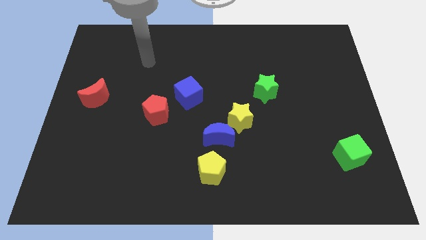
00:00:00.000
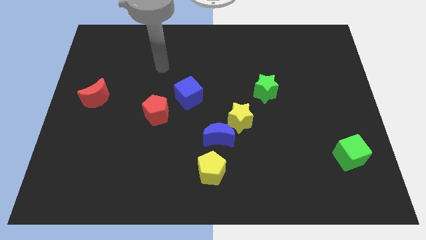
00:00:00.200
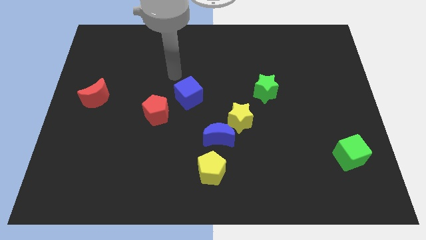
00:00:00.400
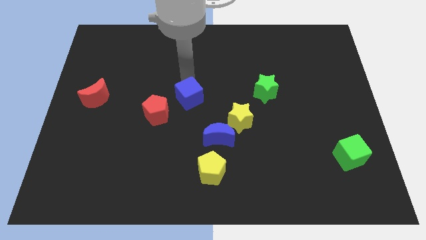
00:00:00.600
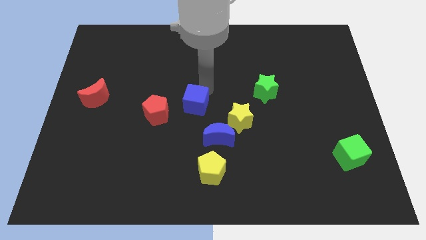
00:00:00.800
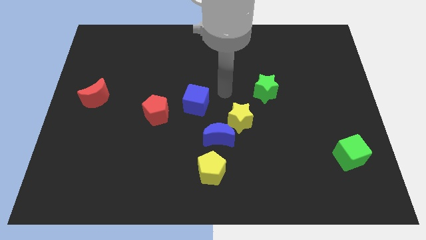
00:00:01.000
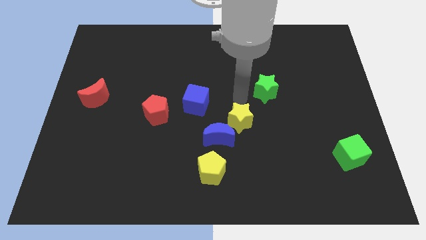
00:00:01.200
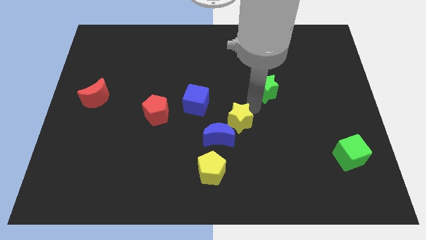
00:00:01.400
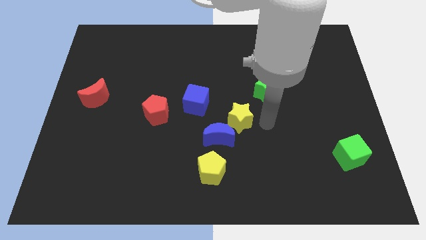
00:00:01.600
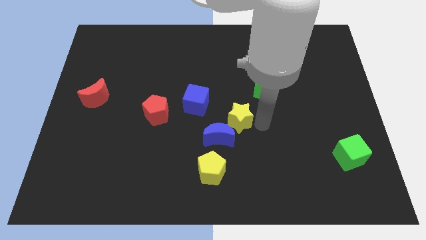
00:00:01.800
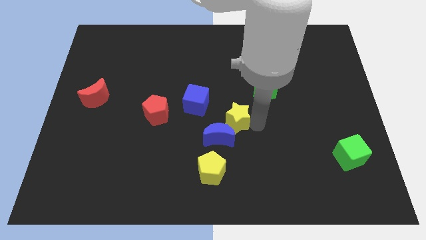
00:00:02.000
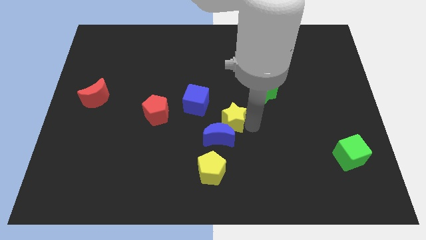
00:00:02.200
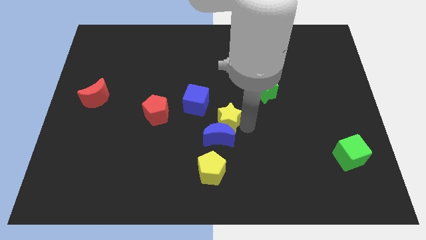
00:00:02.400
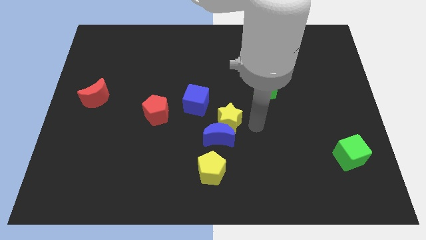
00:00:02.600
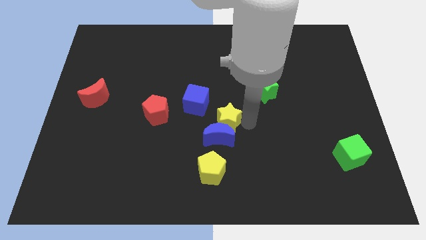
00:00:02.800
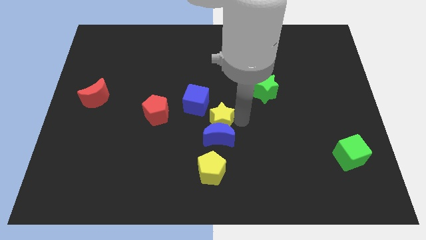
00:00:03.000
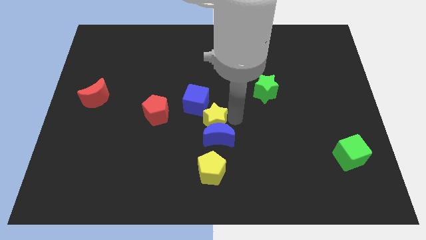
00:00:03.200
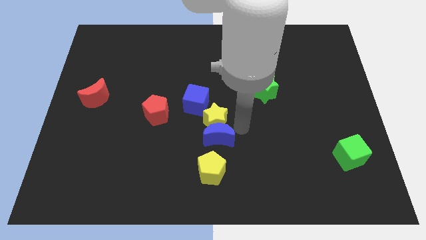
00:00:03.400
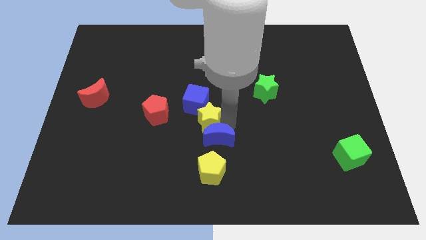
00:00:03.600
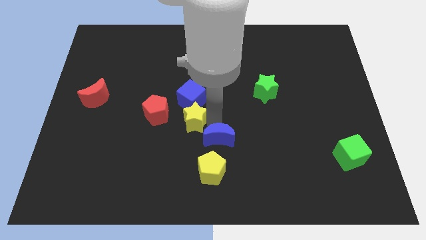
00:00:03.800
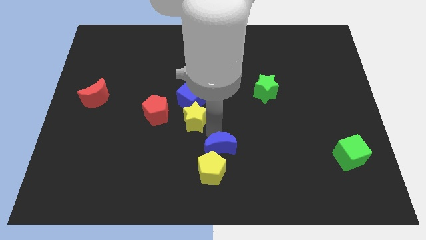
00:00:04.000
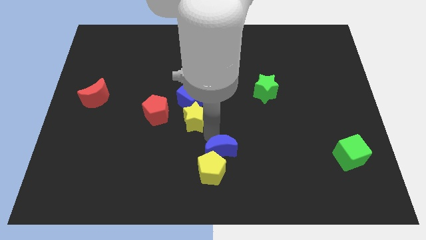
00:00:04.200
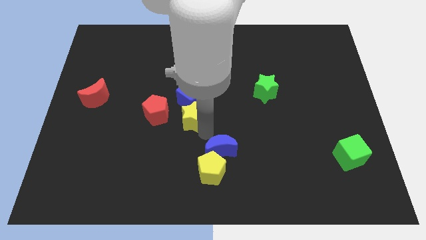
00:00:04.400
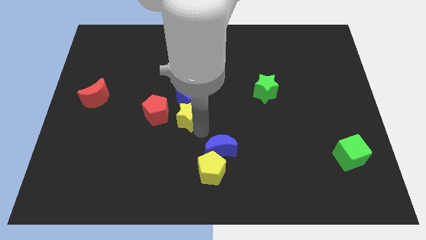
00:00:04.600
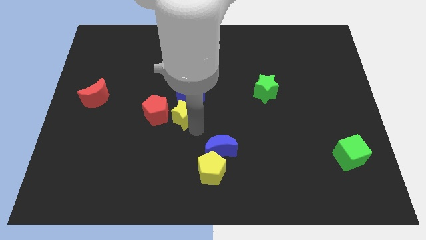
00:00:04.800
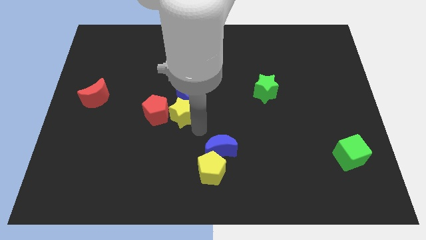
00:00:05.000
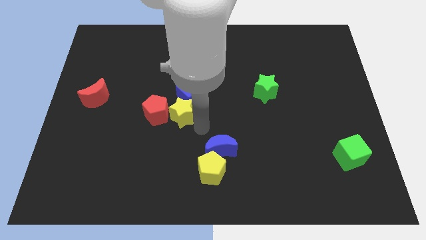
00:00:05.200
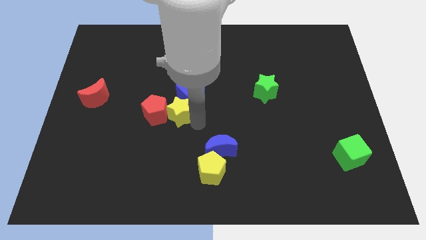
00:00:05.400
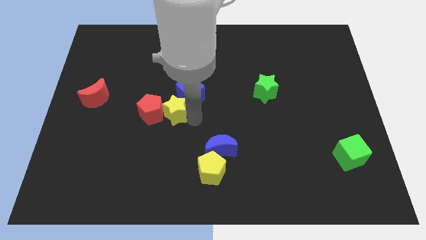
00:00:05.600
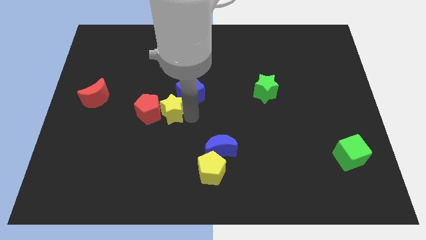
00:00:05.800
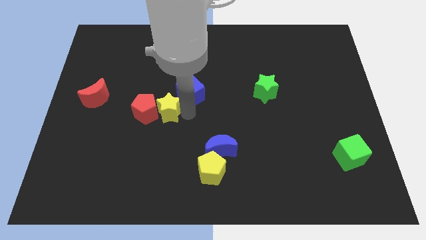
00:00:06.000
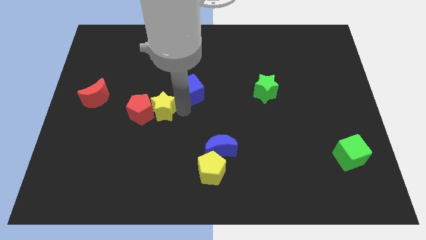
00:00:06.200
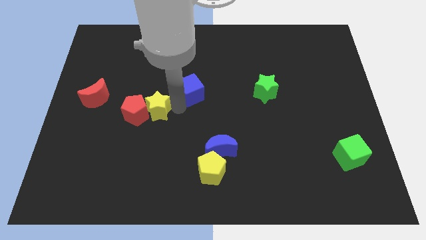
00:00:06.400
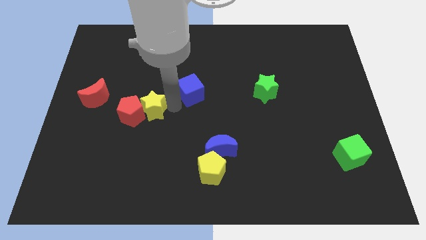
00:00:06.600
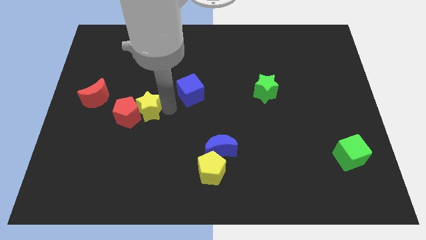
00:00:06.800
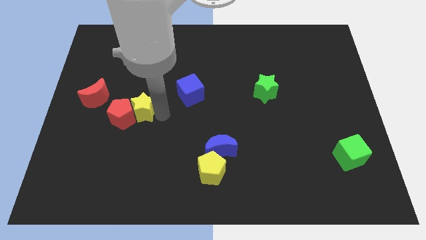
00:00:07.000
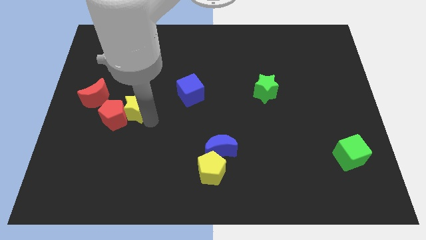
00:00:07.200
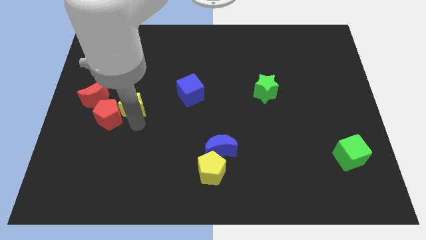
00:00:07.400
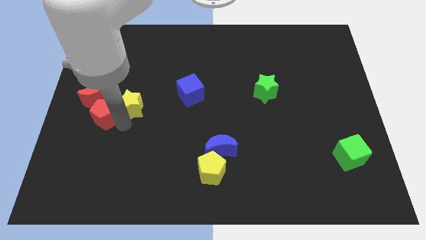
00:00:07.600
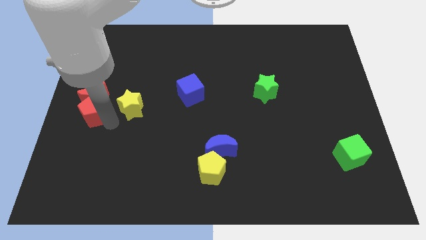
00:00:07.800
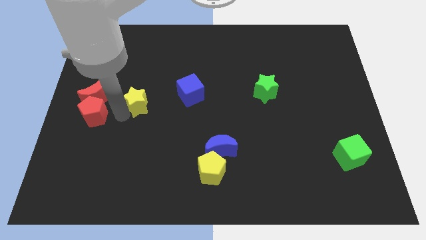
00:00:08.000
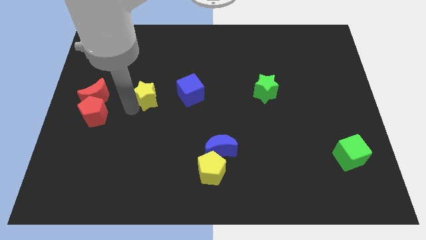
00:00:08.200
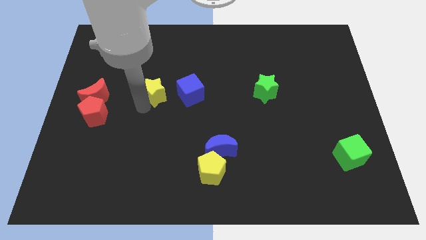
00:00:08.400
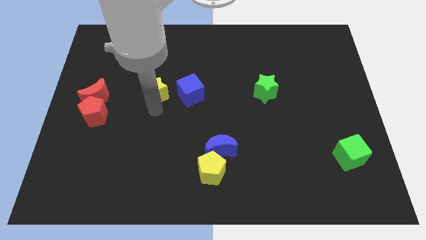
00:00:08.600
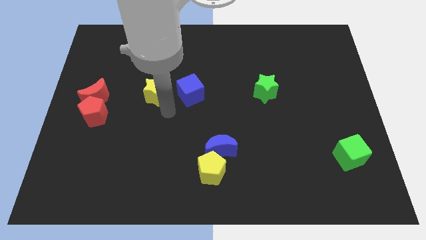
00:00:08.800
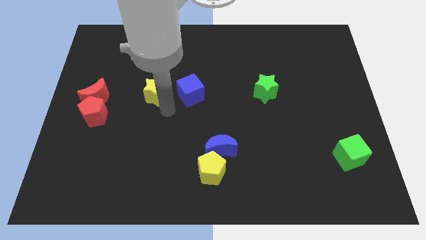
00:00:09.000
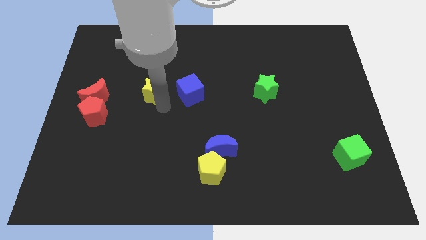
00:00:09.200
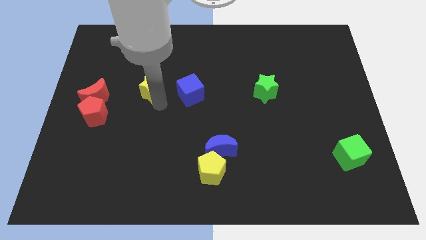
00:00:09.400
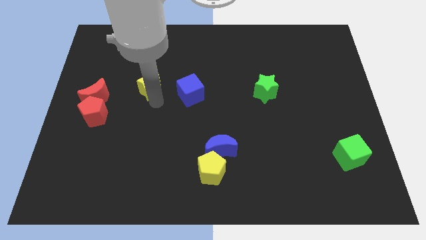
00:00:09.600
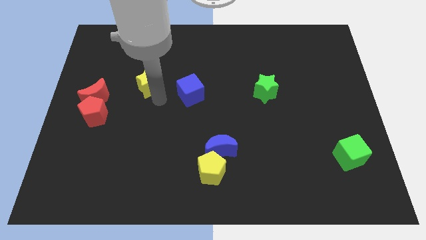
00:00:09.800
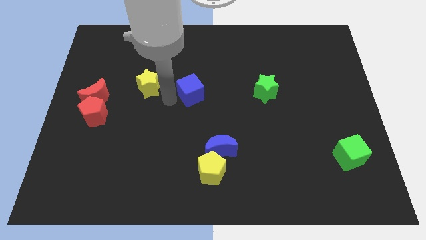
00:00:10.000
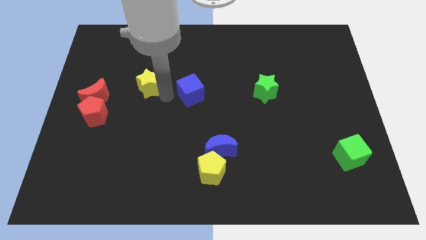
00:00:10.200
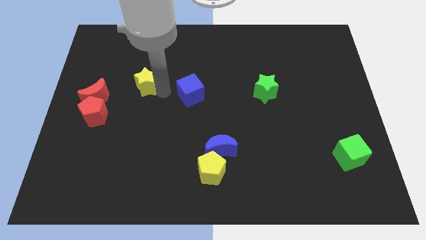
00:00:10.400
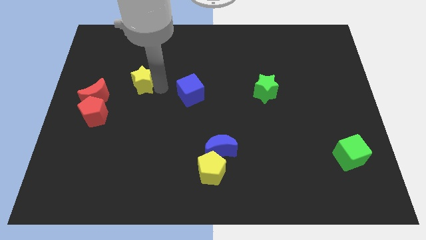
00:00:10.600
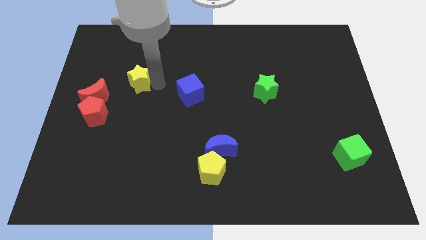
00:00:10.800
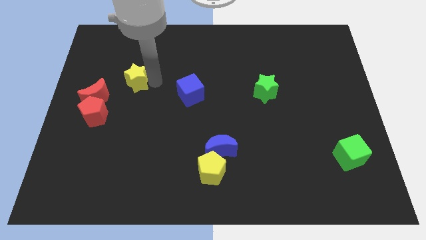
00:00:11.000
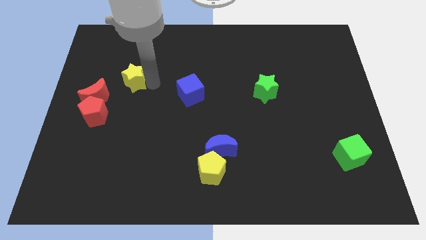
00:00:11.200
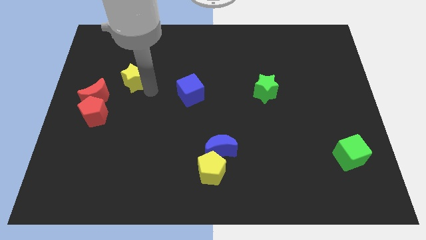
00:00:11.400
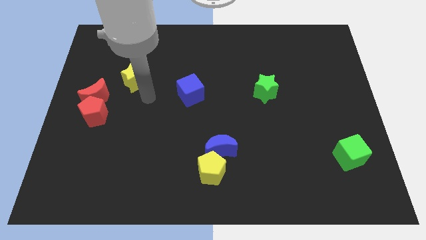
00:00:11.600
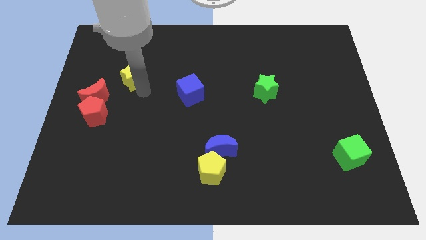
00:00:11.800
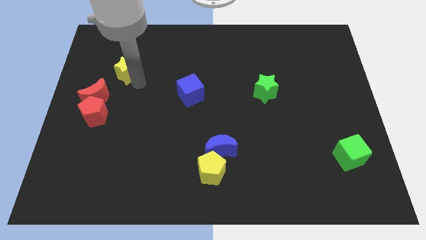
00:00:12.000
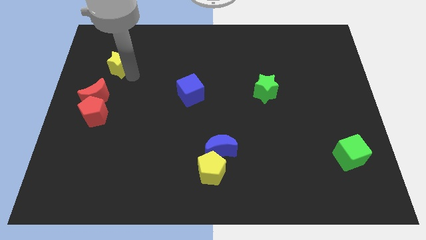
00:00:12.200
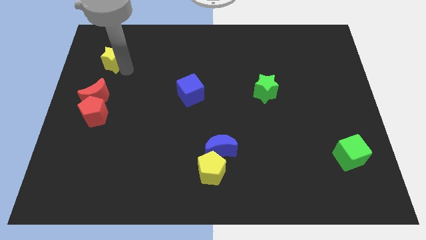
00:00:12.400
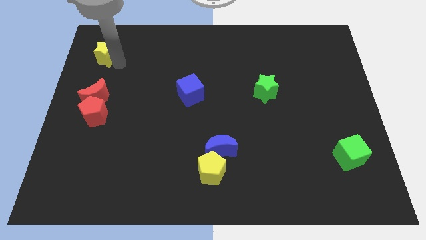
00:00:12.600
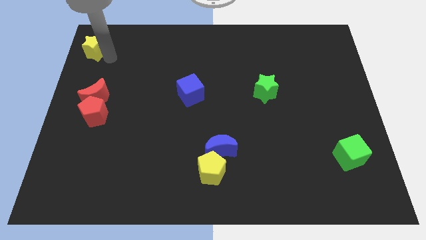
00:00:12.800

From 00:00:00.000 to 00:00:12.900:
push the yellow star to the top left of the board
